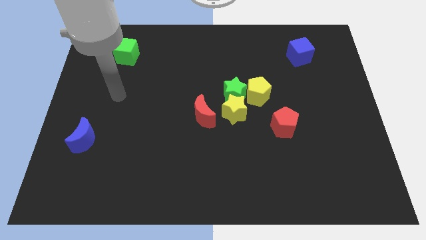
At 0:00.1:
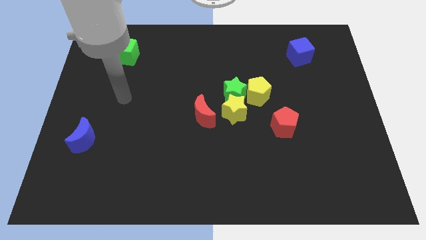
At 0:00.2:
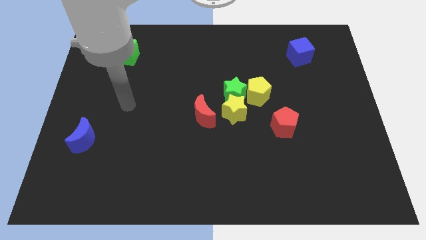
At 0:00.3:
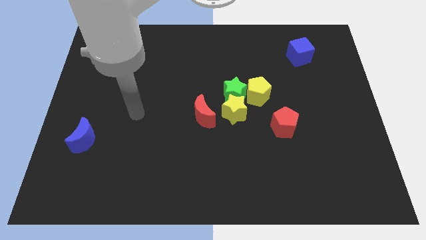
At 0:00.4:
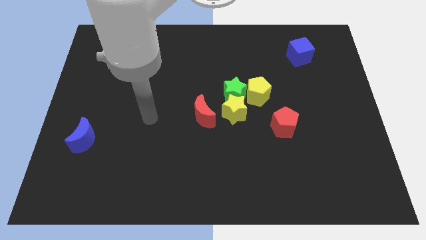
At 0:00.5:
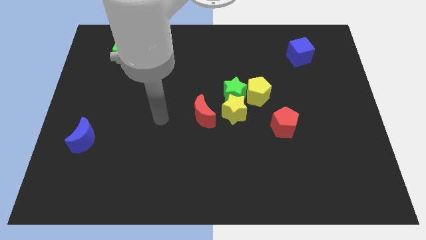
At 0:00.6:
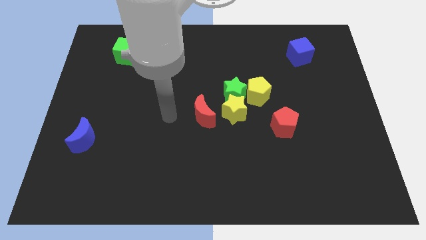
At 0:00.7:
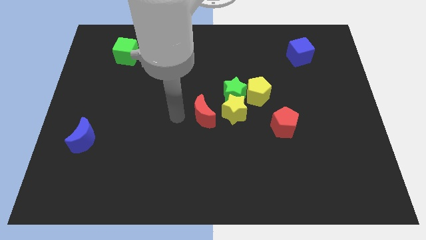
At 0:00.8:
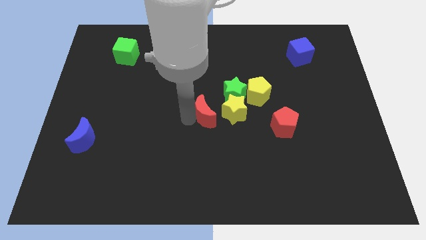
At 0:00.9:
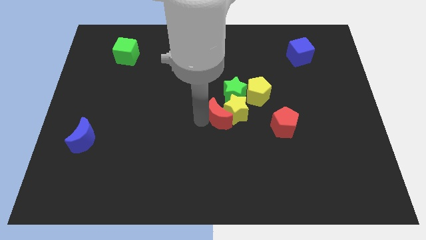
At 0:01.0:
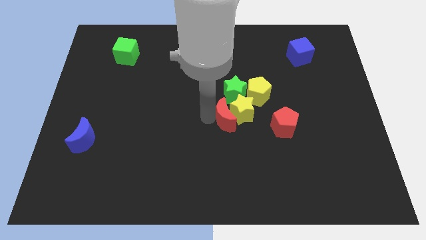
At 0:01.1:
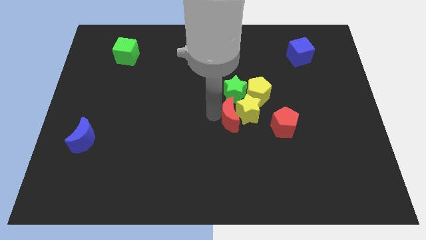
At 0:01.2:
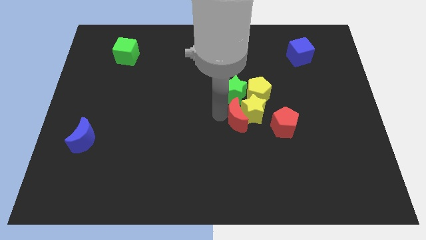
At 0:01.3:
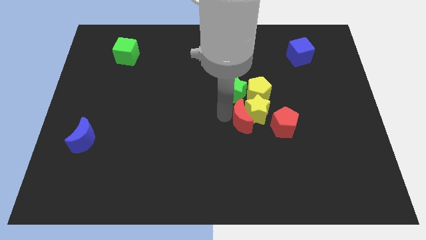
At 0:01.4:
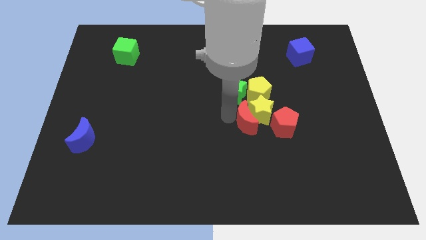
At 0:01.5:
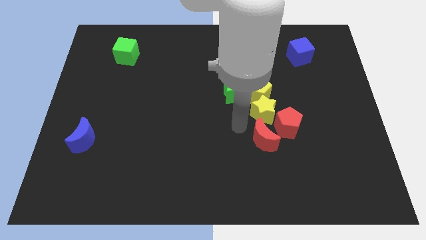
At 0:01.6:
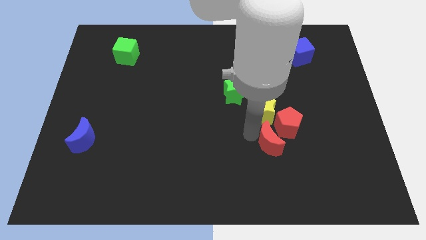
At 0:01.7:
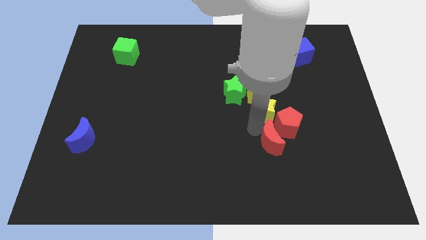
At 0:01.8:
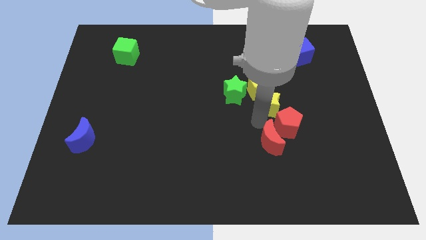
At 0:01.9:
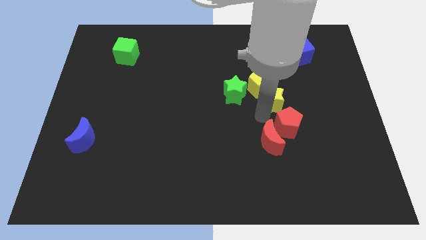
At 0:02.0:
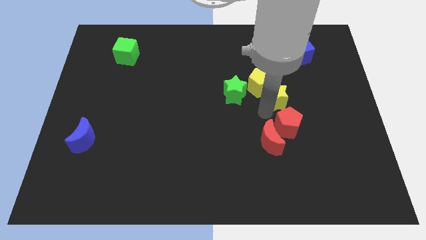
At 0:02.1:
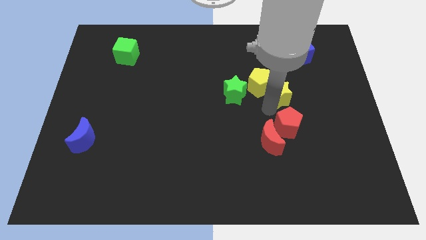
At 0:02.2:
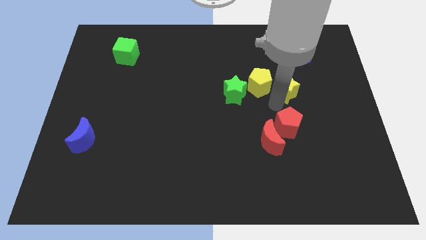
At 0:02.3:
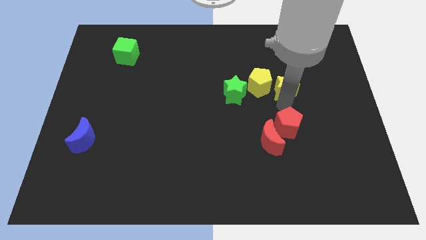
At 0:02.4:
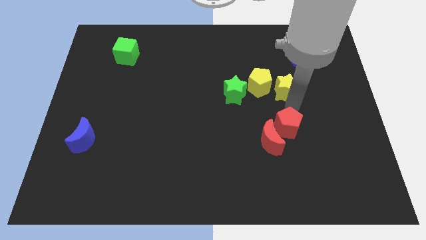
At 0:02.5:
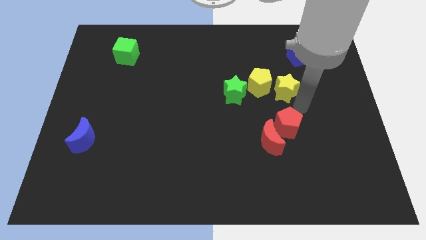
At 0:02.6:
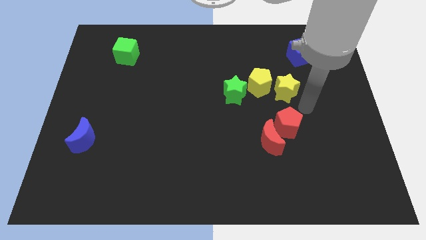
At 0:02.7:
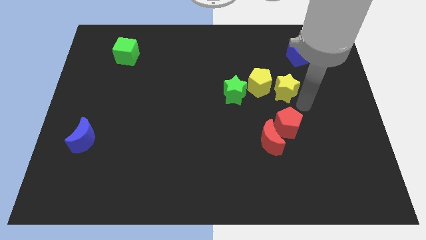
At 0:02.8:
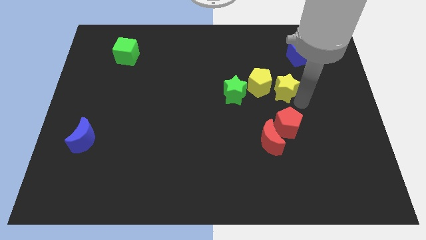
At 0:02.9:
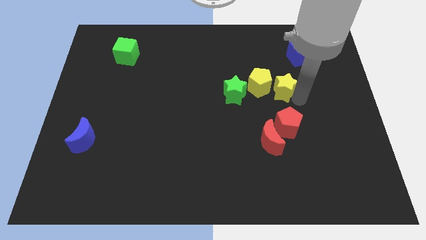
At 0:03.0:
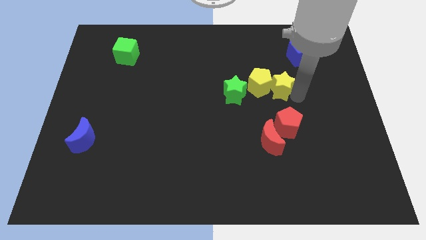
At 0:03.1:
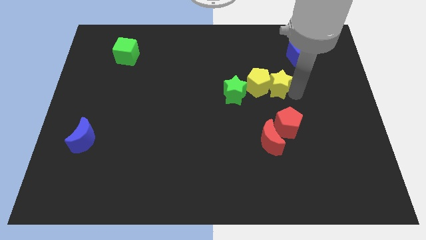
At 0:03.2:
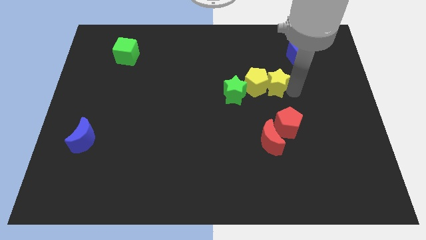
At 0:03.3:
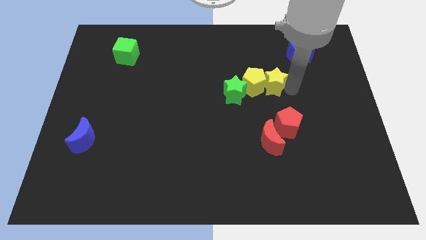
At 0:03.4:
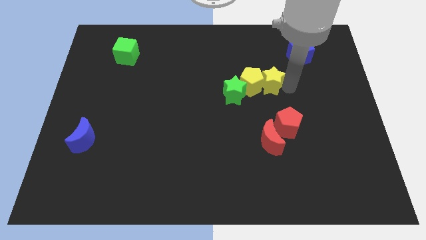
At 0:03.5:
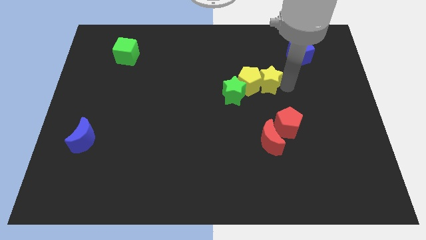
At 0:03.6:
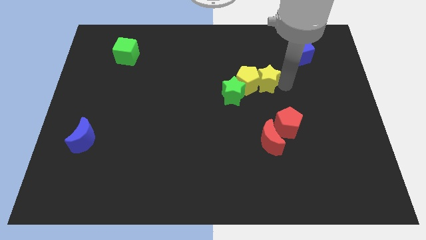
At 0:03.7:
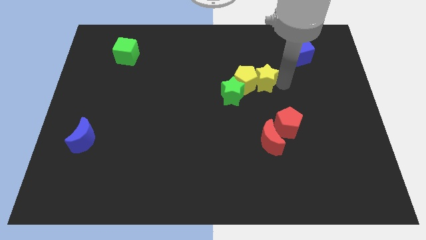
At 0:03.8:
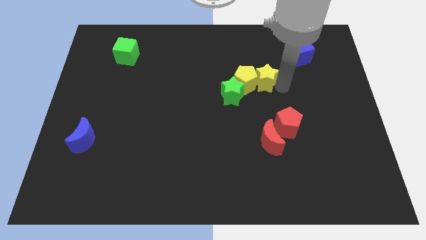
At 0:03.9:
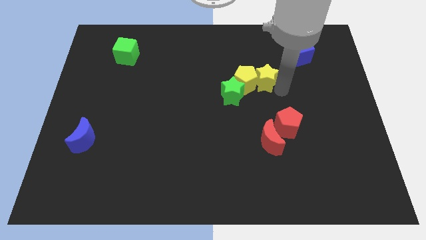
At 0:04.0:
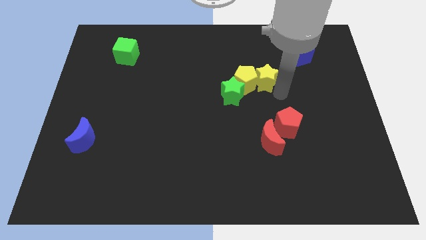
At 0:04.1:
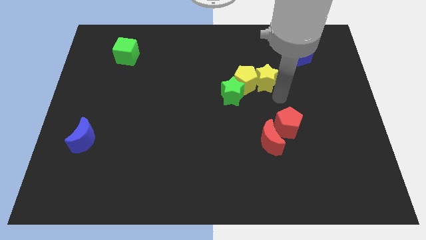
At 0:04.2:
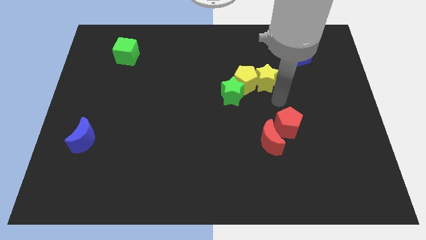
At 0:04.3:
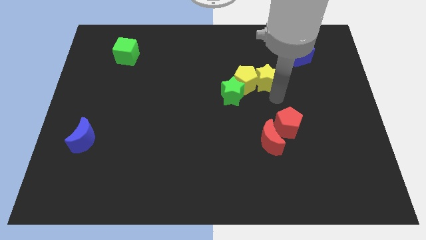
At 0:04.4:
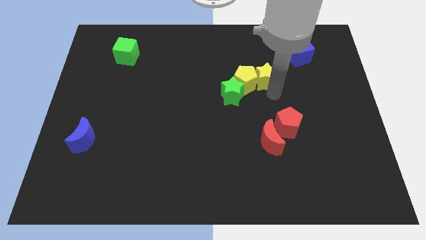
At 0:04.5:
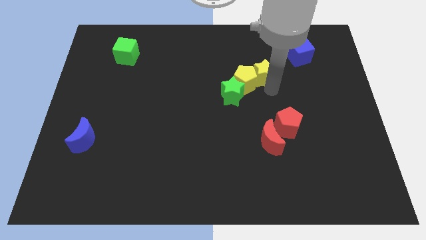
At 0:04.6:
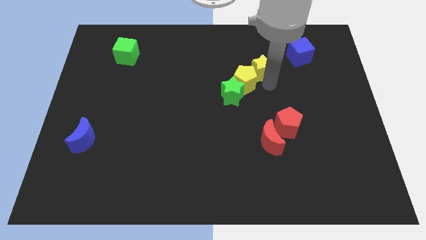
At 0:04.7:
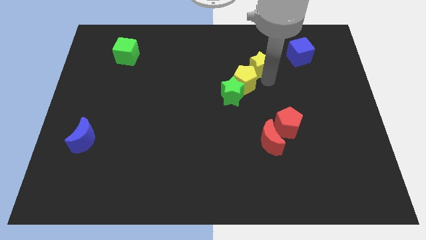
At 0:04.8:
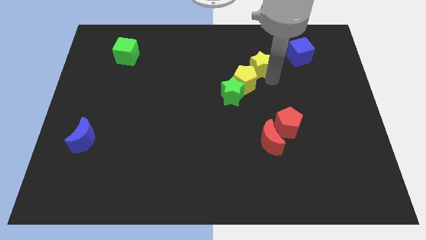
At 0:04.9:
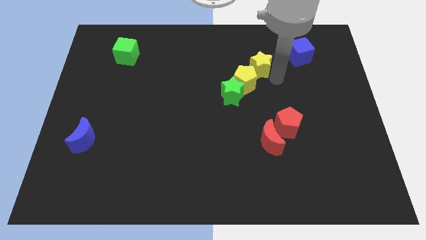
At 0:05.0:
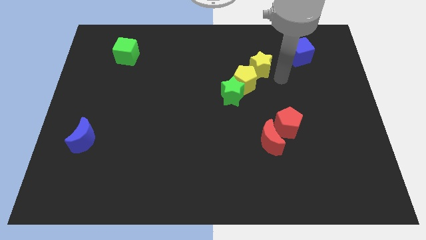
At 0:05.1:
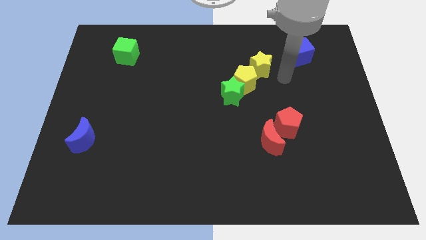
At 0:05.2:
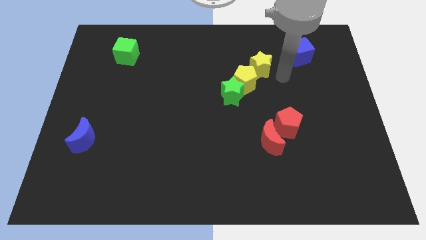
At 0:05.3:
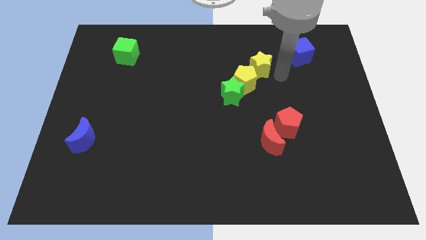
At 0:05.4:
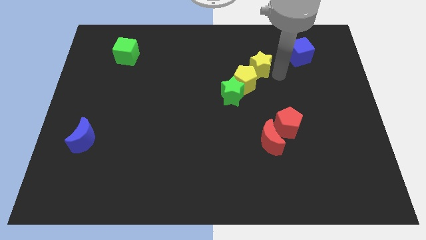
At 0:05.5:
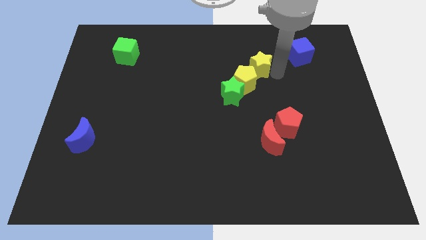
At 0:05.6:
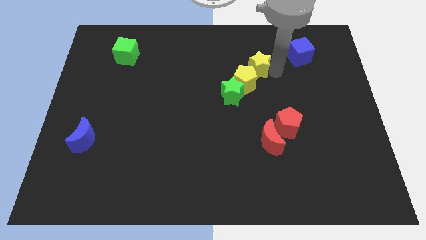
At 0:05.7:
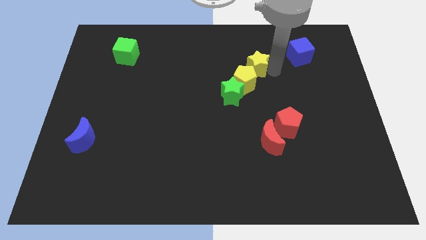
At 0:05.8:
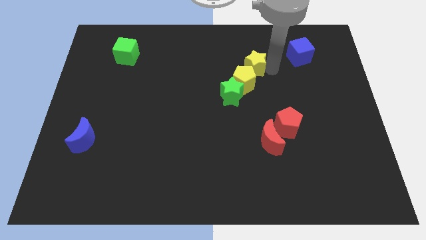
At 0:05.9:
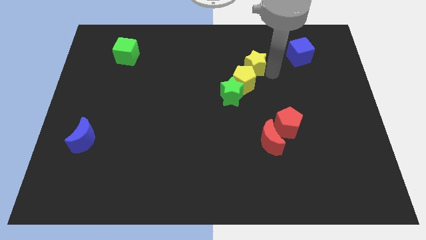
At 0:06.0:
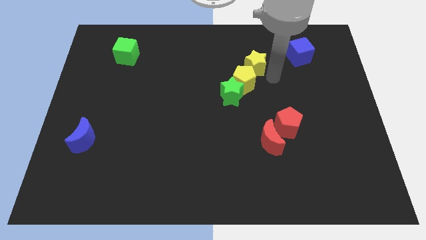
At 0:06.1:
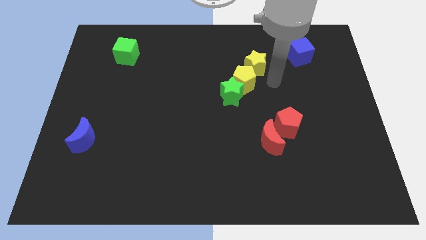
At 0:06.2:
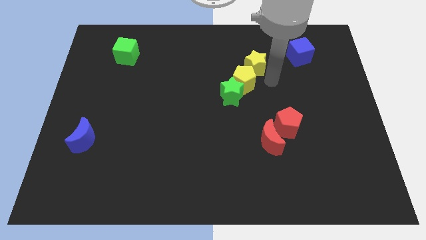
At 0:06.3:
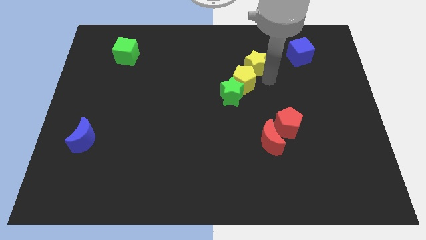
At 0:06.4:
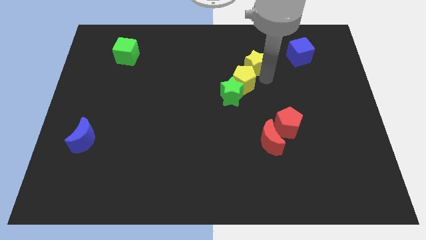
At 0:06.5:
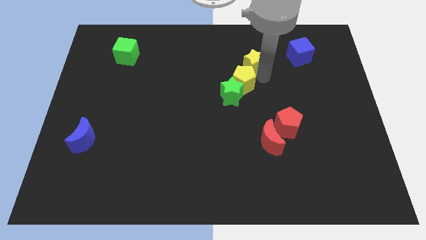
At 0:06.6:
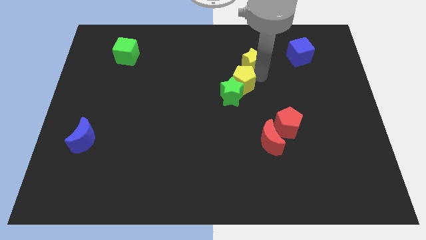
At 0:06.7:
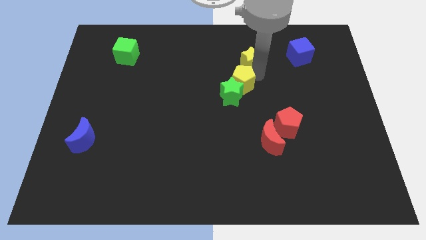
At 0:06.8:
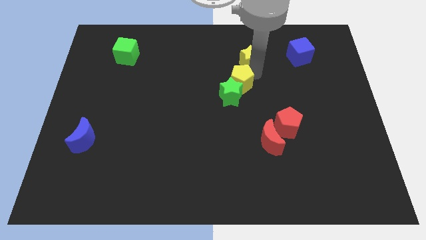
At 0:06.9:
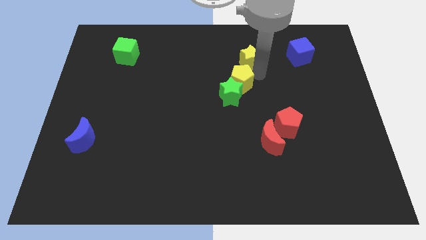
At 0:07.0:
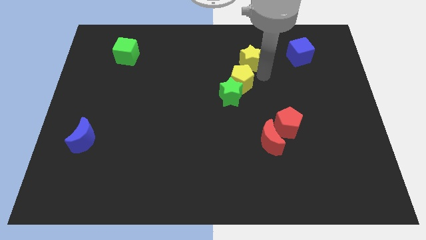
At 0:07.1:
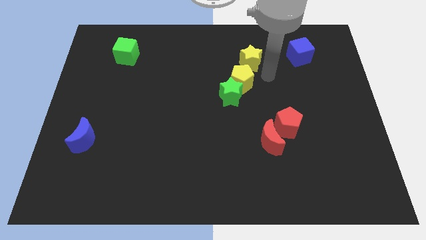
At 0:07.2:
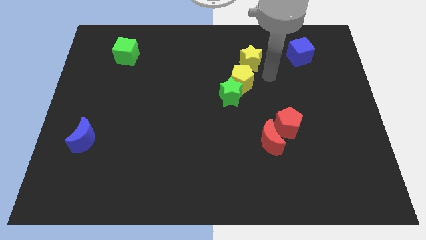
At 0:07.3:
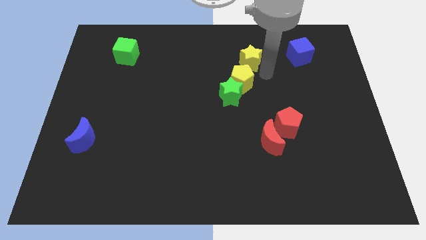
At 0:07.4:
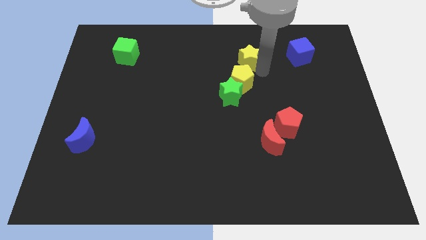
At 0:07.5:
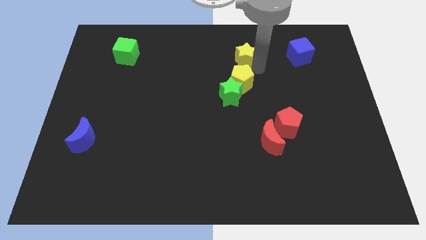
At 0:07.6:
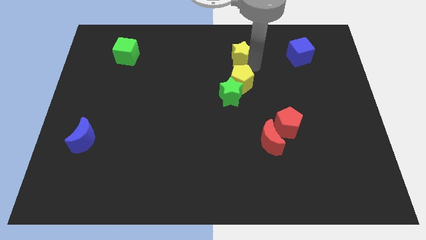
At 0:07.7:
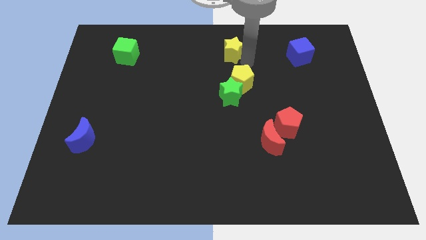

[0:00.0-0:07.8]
slide the yellow star to the towards your base
